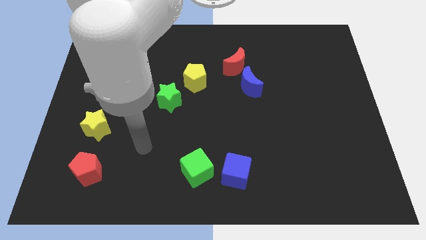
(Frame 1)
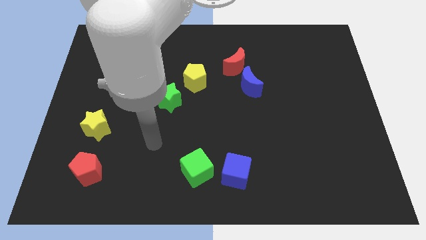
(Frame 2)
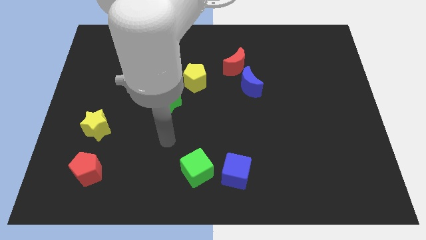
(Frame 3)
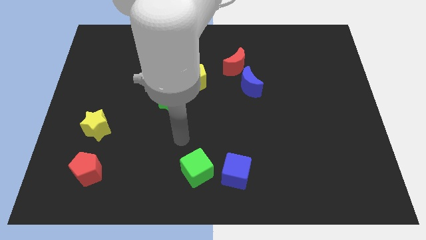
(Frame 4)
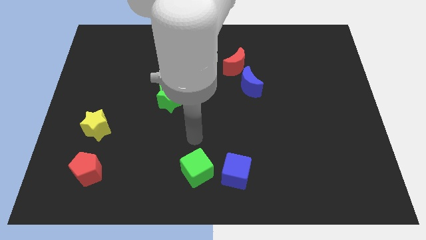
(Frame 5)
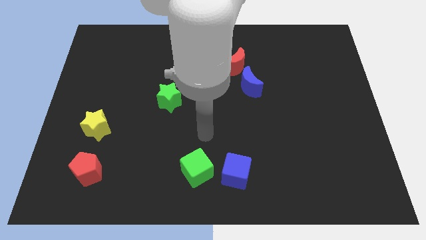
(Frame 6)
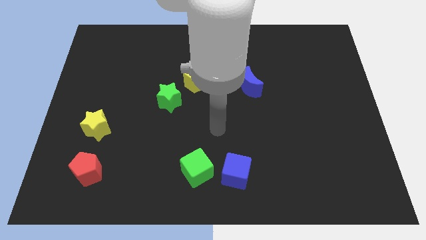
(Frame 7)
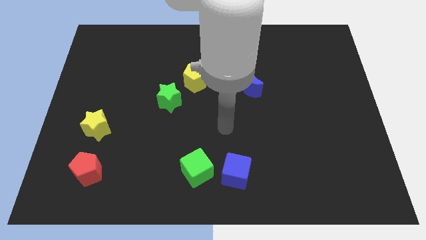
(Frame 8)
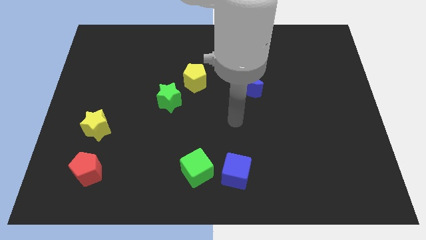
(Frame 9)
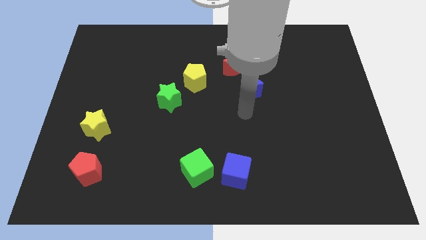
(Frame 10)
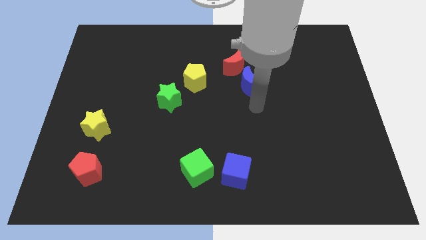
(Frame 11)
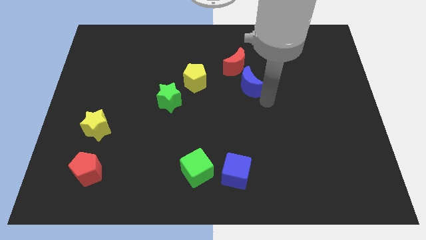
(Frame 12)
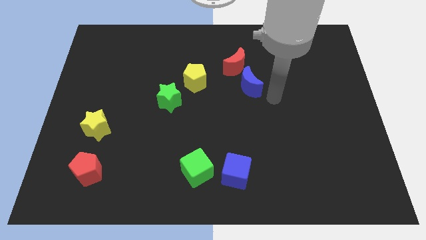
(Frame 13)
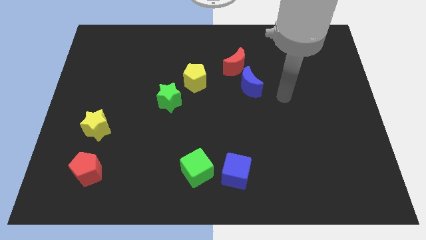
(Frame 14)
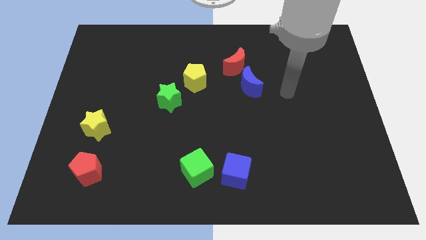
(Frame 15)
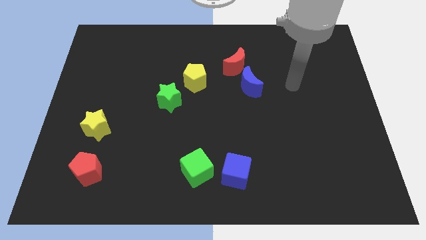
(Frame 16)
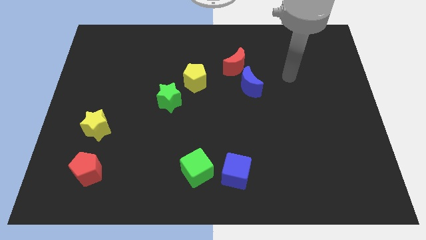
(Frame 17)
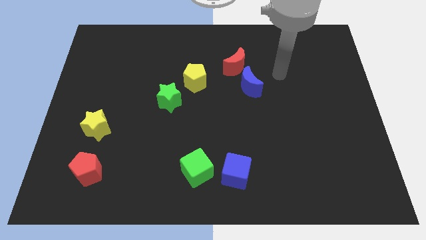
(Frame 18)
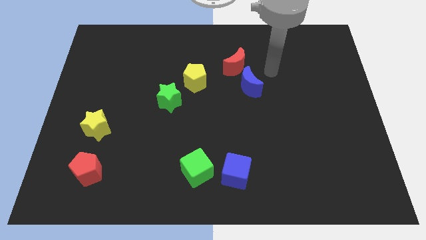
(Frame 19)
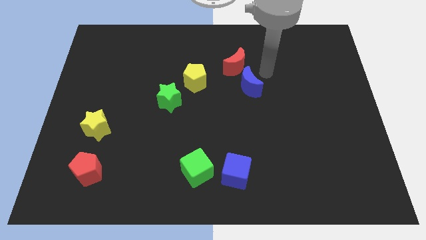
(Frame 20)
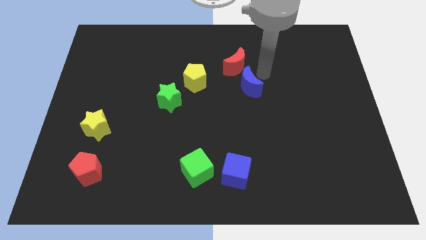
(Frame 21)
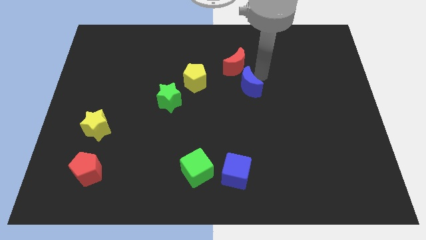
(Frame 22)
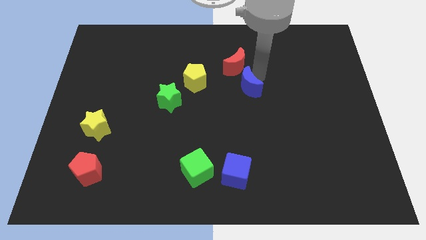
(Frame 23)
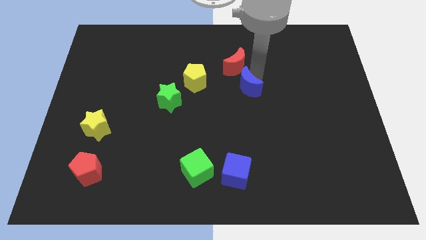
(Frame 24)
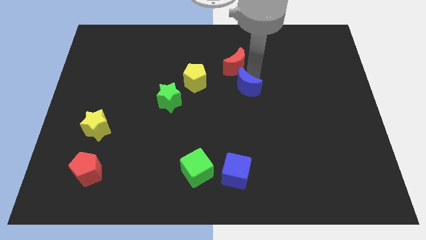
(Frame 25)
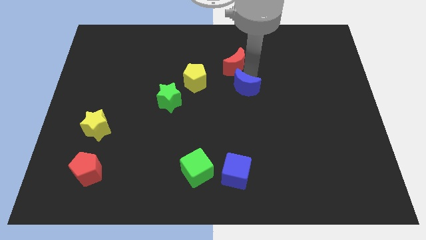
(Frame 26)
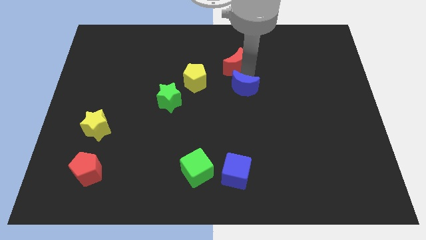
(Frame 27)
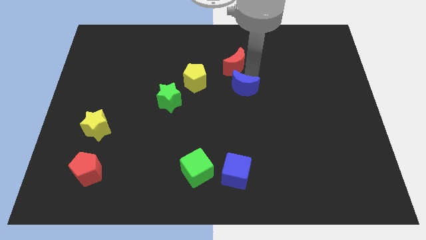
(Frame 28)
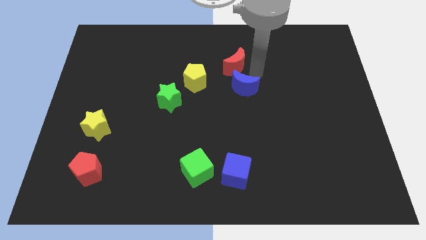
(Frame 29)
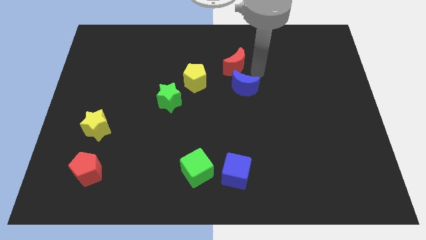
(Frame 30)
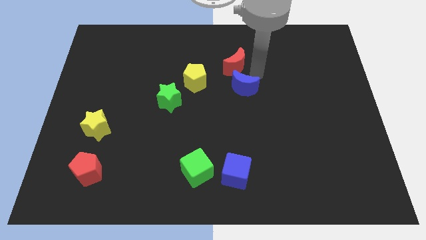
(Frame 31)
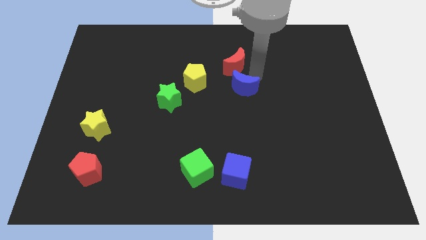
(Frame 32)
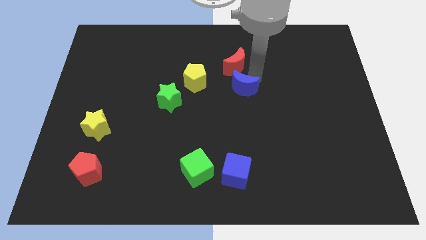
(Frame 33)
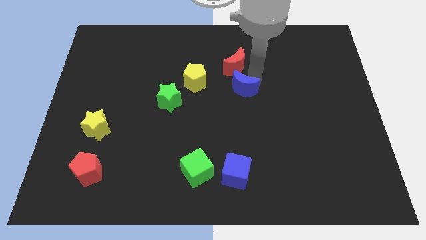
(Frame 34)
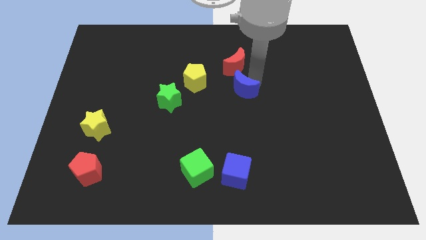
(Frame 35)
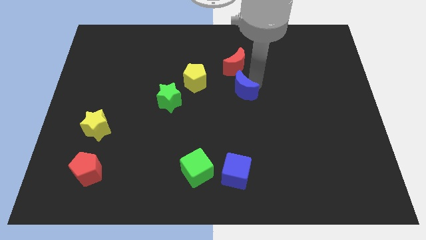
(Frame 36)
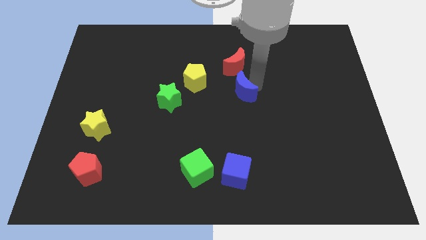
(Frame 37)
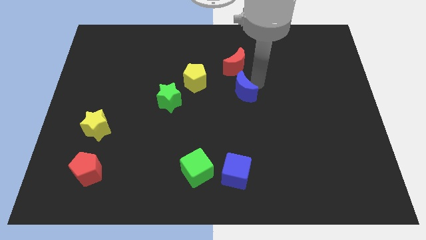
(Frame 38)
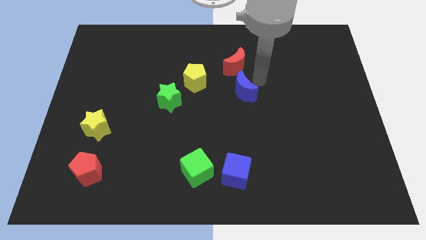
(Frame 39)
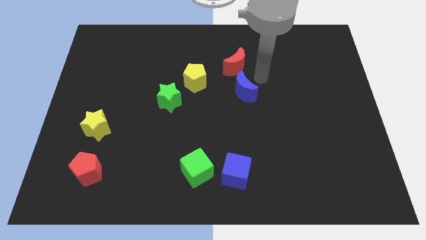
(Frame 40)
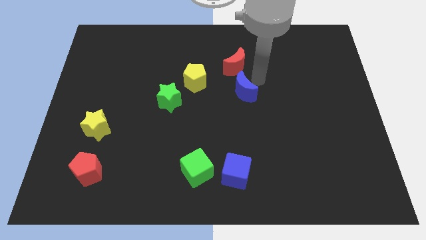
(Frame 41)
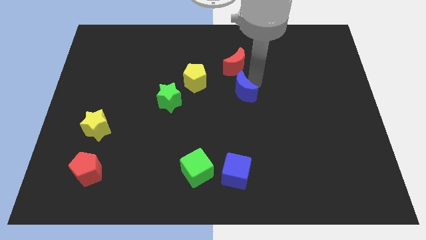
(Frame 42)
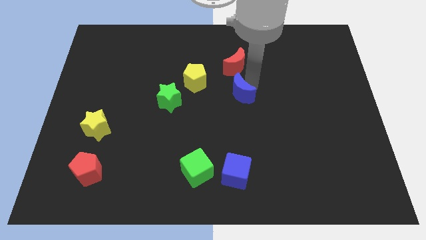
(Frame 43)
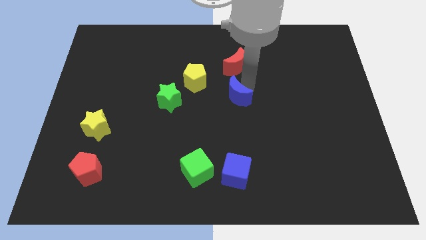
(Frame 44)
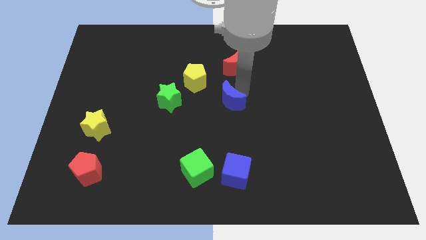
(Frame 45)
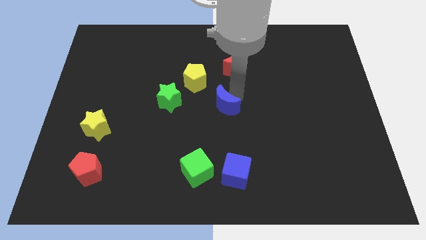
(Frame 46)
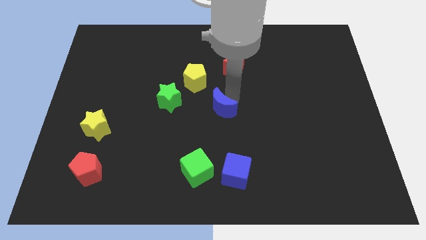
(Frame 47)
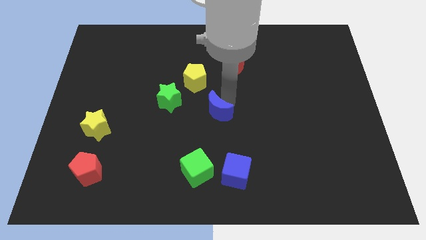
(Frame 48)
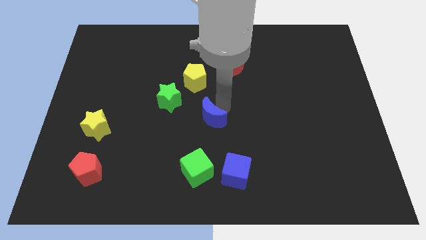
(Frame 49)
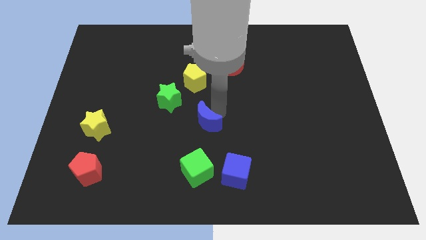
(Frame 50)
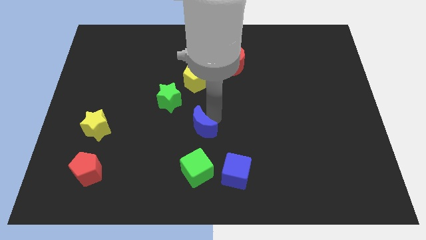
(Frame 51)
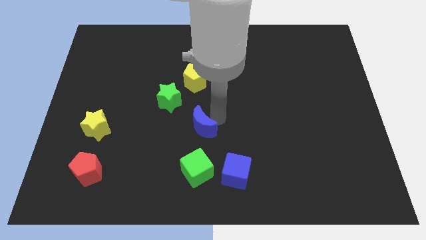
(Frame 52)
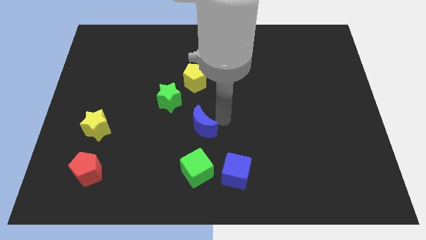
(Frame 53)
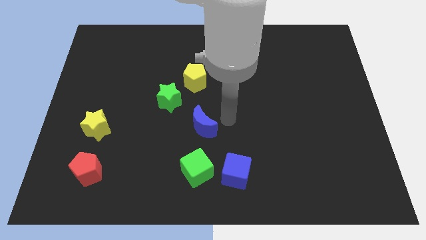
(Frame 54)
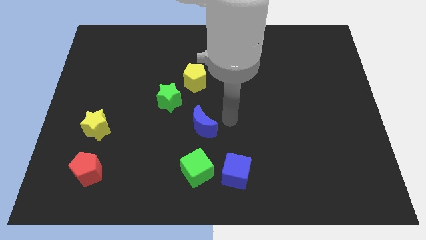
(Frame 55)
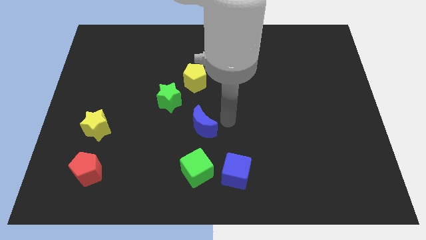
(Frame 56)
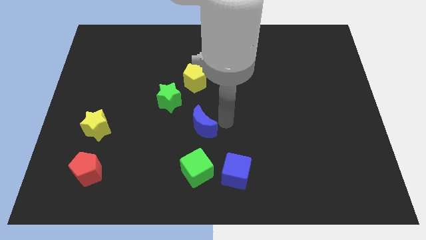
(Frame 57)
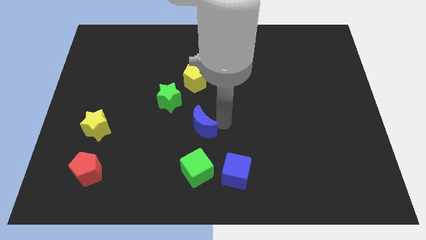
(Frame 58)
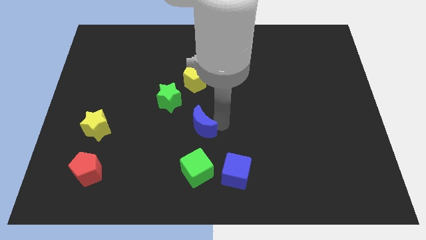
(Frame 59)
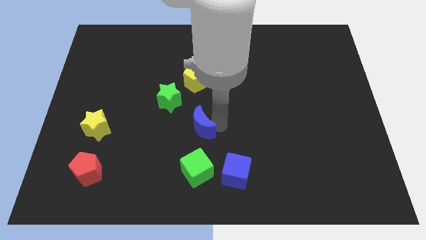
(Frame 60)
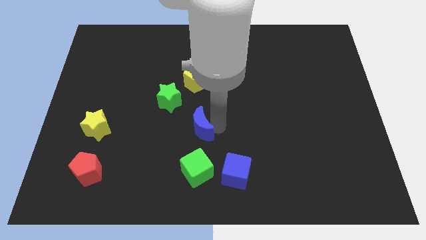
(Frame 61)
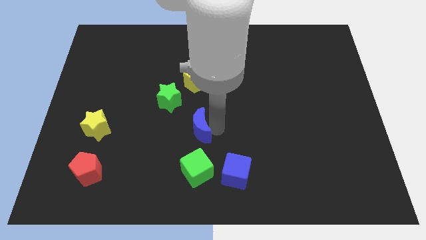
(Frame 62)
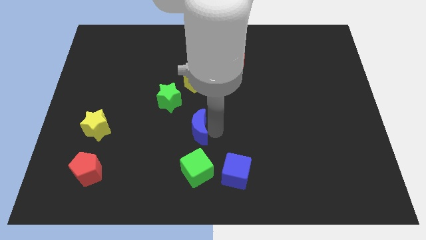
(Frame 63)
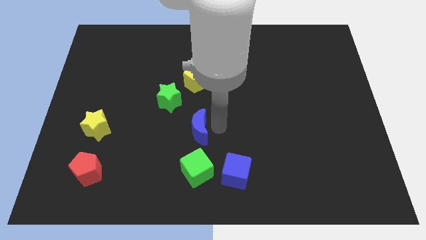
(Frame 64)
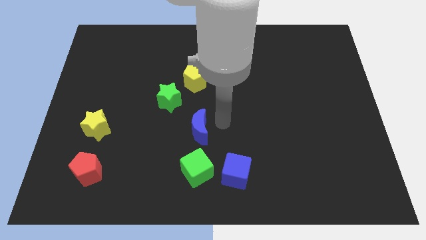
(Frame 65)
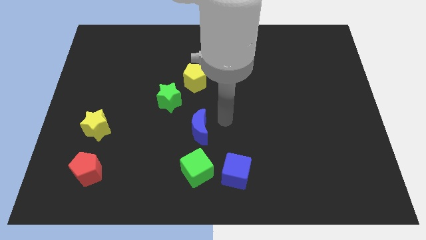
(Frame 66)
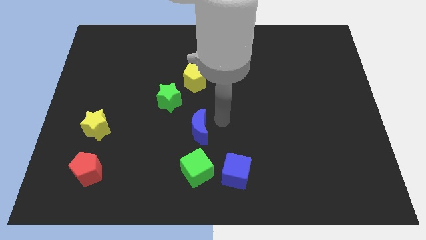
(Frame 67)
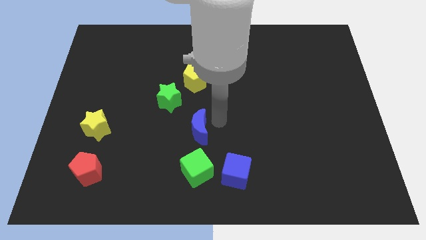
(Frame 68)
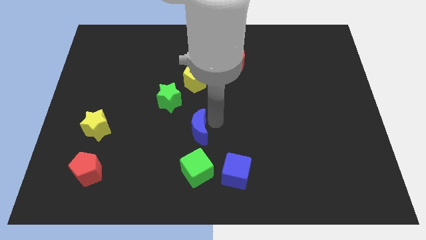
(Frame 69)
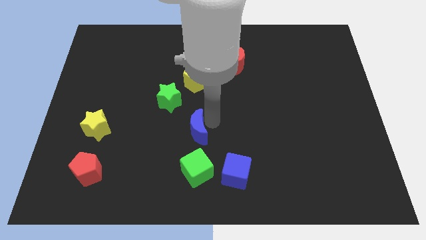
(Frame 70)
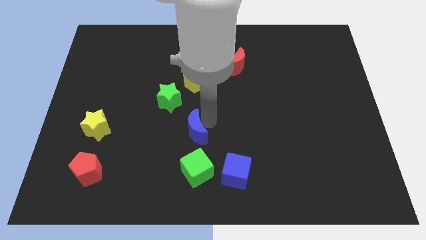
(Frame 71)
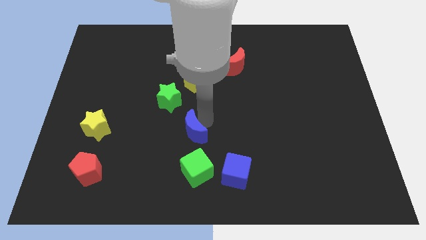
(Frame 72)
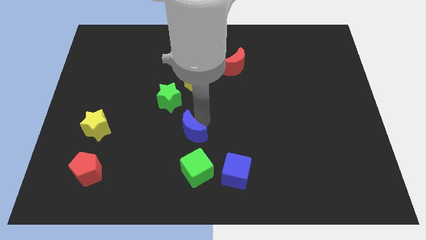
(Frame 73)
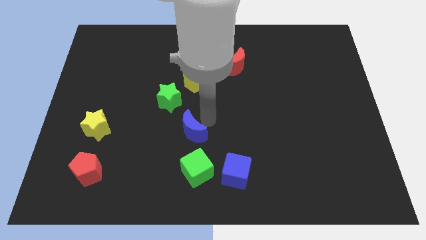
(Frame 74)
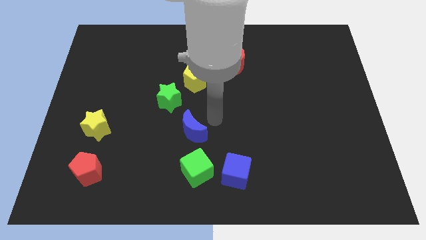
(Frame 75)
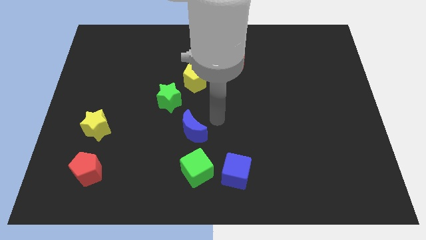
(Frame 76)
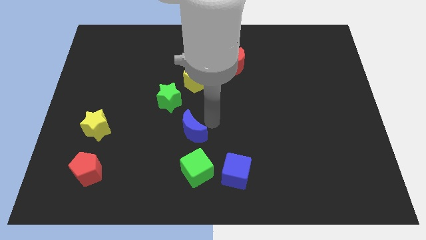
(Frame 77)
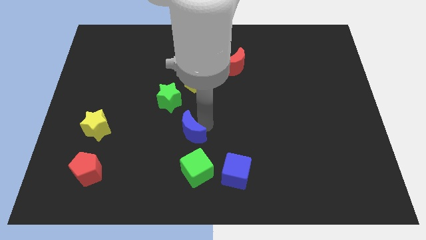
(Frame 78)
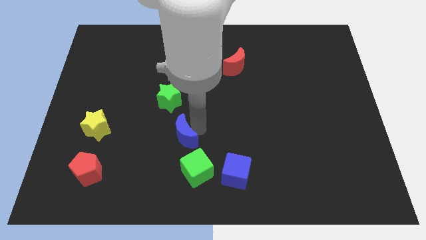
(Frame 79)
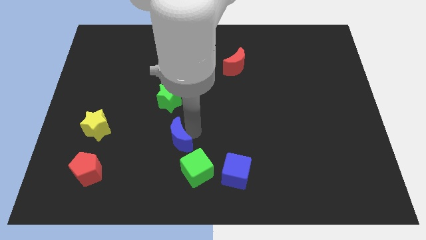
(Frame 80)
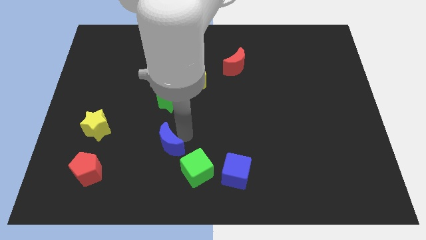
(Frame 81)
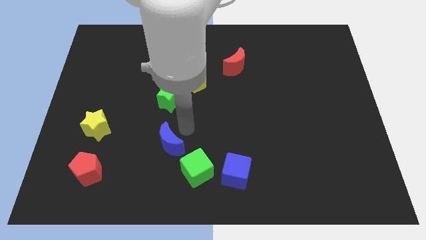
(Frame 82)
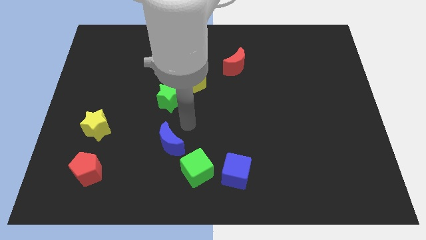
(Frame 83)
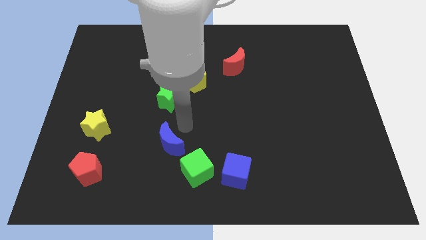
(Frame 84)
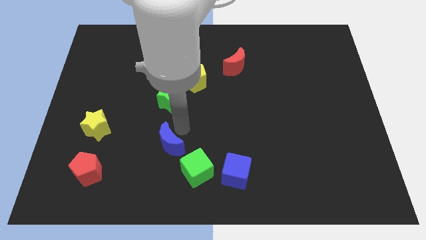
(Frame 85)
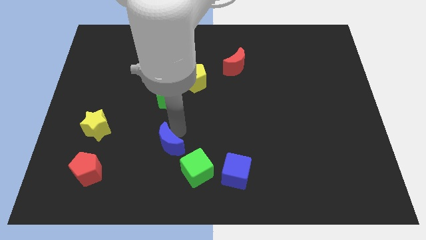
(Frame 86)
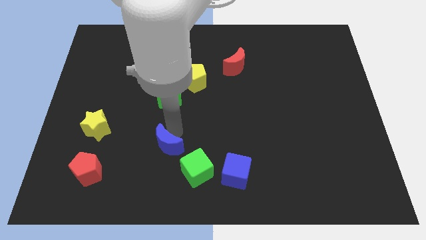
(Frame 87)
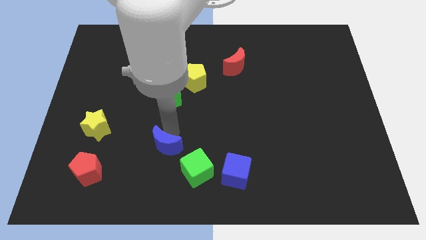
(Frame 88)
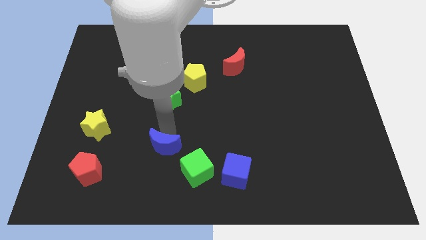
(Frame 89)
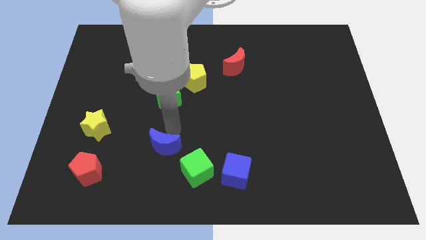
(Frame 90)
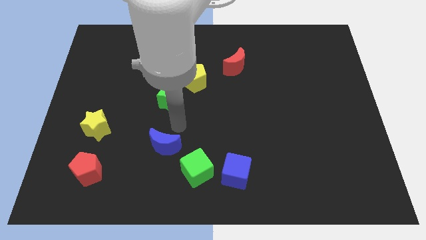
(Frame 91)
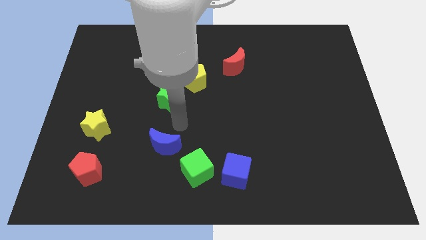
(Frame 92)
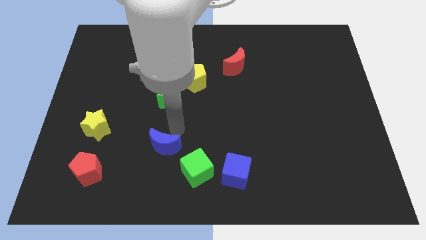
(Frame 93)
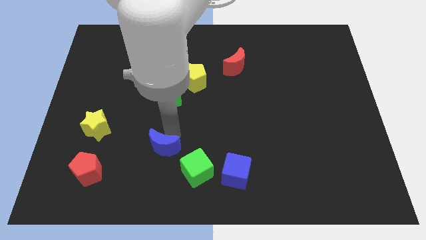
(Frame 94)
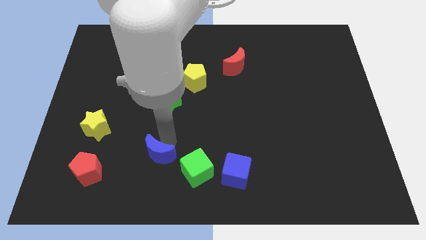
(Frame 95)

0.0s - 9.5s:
push the blue moon left of the green cube
